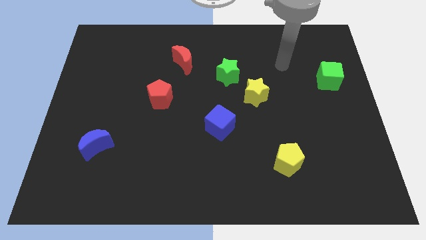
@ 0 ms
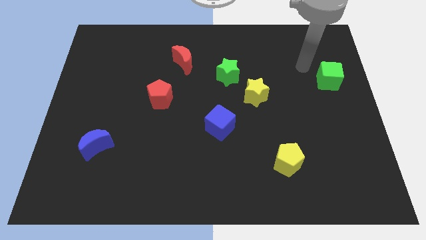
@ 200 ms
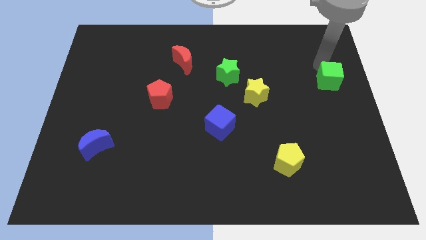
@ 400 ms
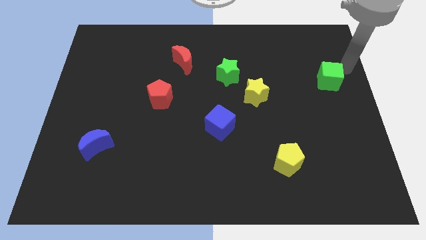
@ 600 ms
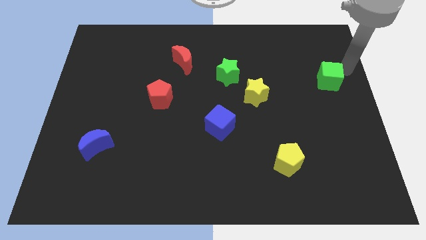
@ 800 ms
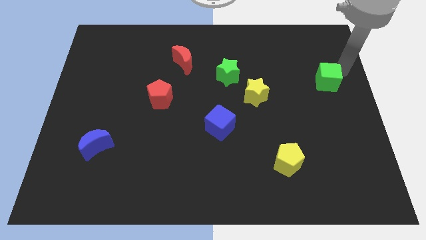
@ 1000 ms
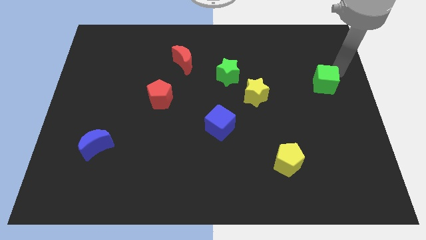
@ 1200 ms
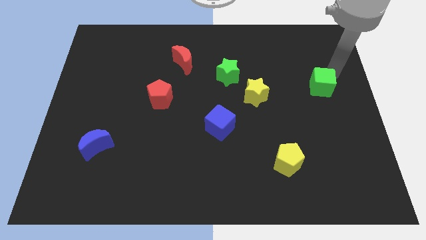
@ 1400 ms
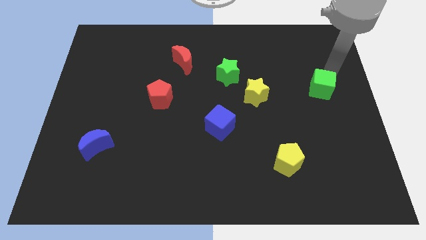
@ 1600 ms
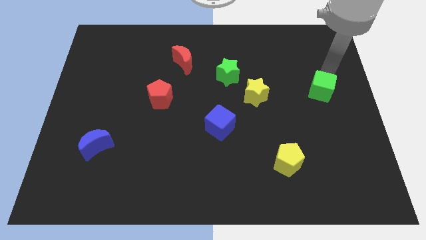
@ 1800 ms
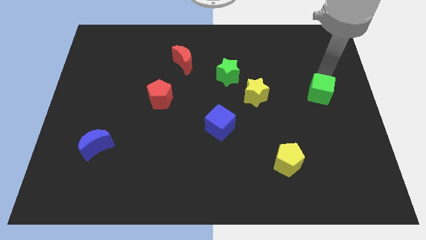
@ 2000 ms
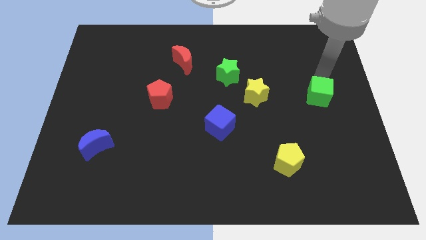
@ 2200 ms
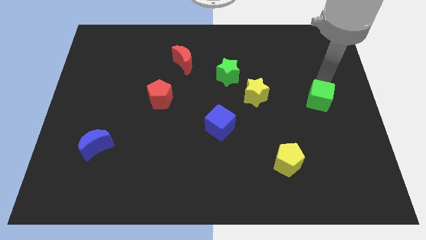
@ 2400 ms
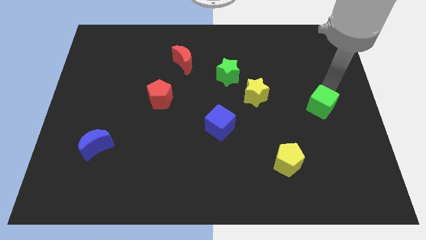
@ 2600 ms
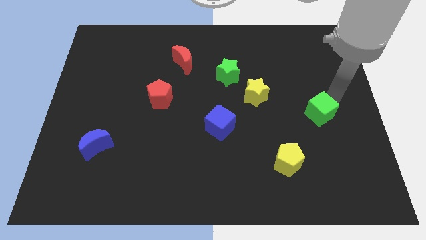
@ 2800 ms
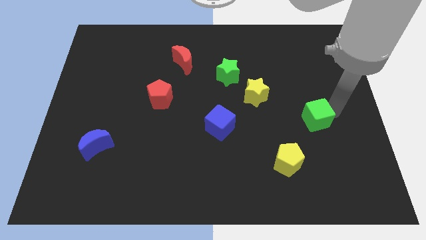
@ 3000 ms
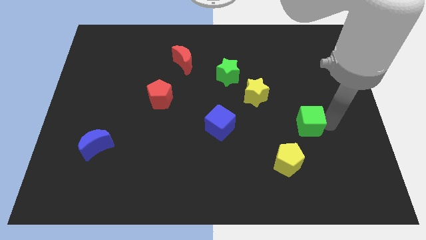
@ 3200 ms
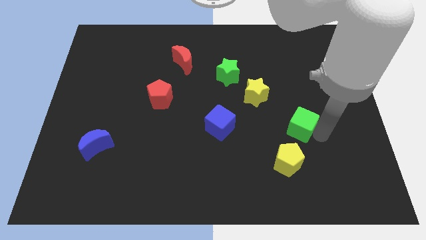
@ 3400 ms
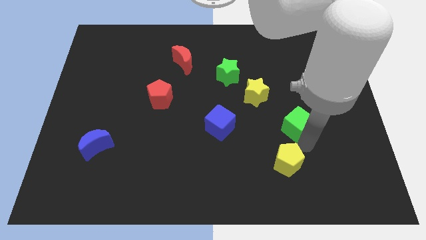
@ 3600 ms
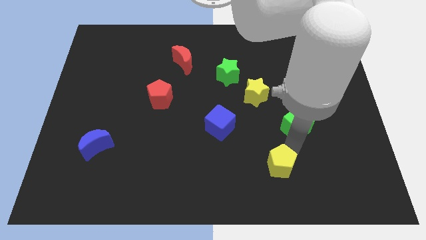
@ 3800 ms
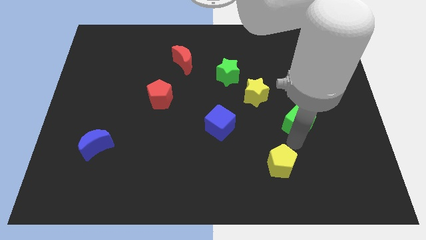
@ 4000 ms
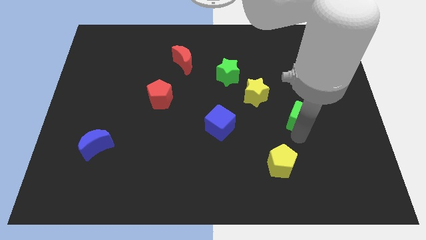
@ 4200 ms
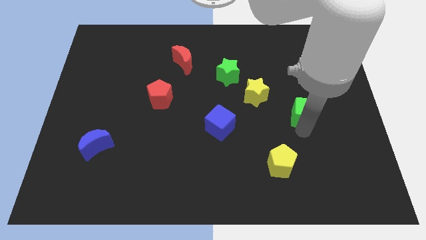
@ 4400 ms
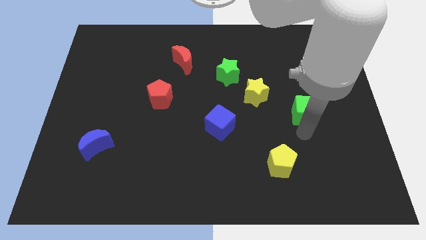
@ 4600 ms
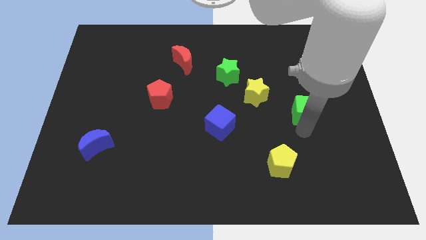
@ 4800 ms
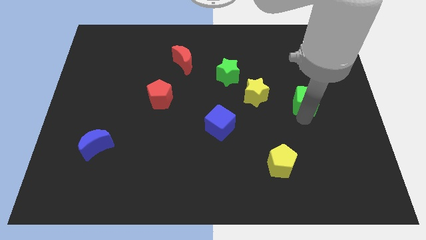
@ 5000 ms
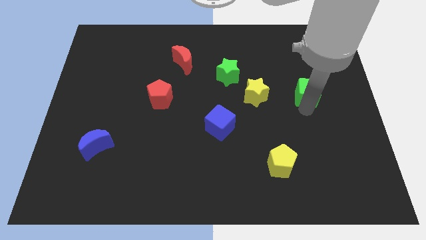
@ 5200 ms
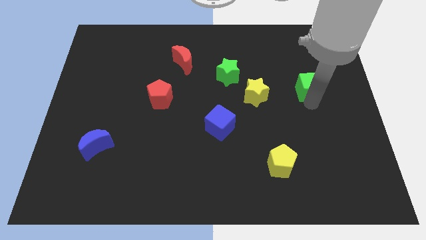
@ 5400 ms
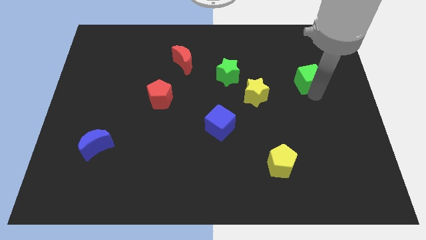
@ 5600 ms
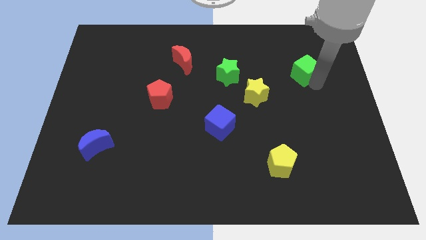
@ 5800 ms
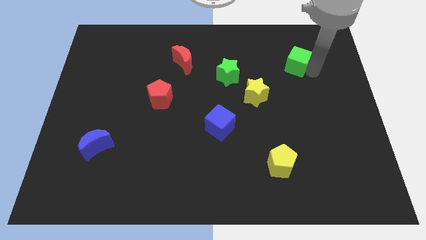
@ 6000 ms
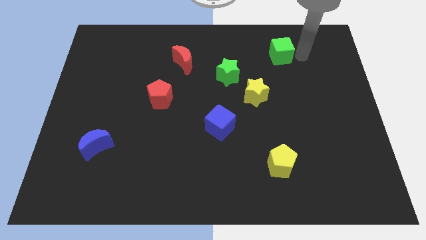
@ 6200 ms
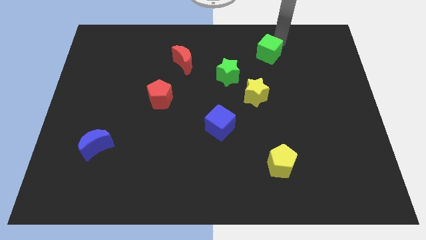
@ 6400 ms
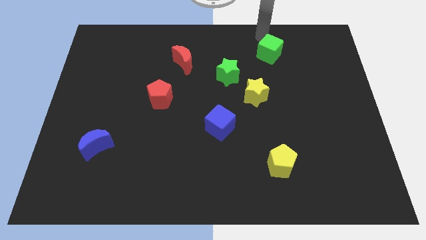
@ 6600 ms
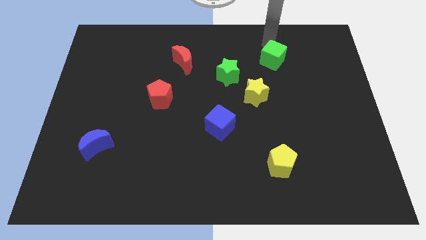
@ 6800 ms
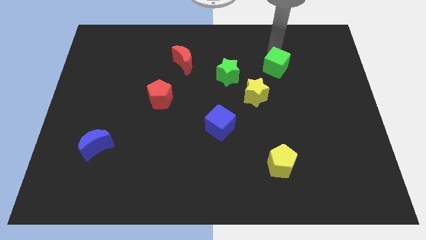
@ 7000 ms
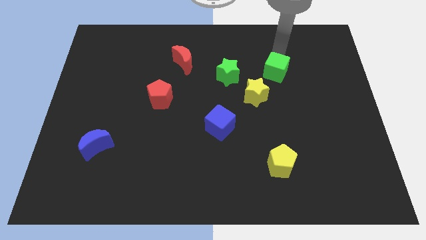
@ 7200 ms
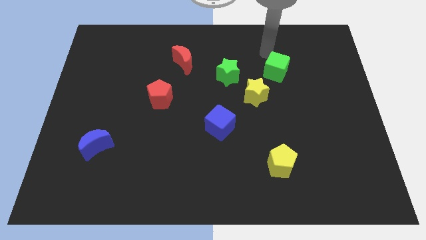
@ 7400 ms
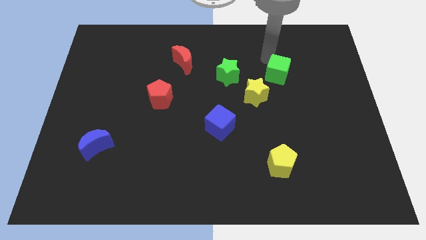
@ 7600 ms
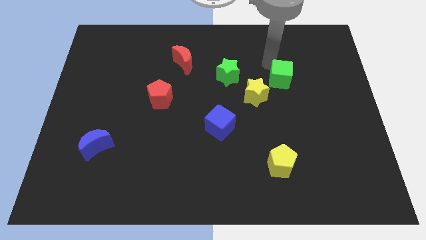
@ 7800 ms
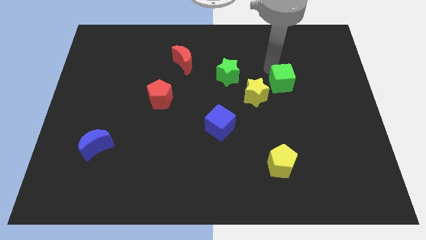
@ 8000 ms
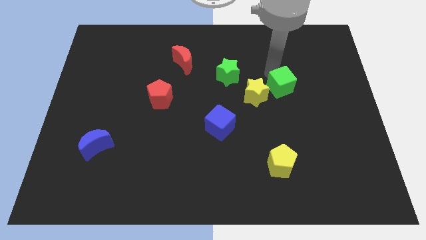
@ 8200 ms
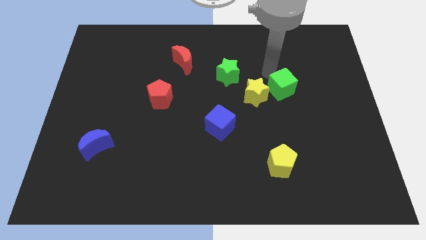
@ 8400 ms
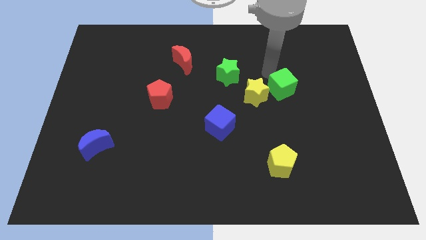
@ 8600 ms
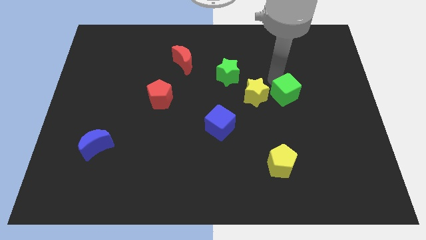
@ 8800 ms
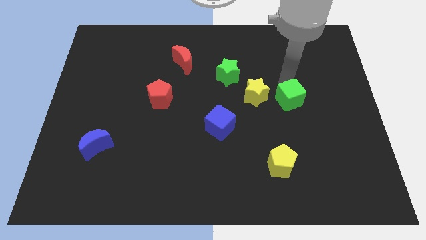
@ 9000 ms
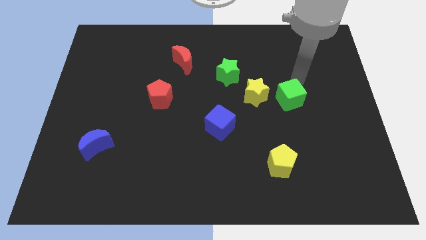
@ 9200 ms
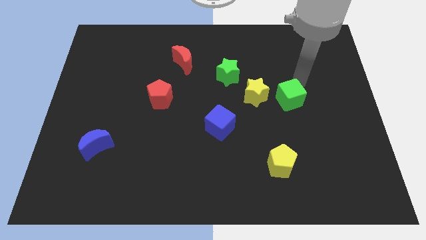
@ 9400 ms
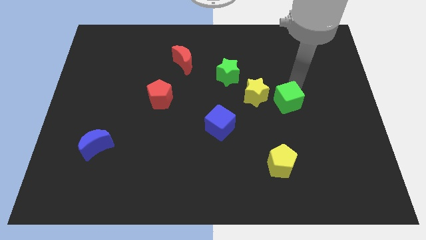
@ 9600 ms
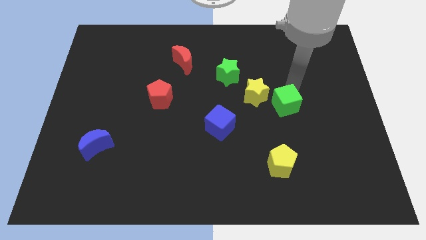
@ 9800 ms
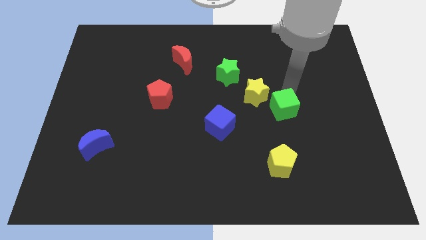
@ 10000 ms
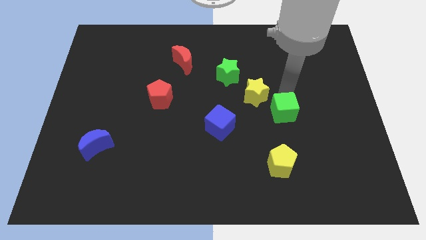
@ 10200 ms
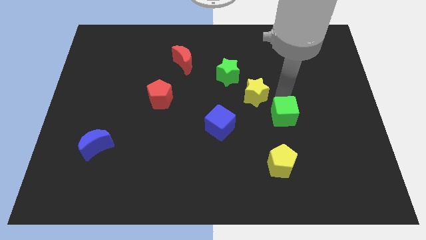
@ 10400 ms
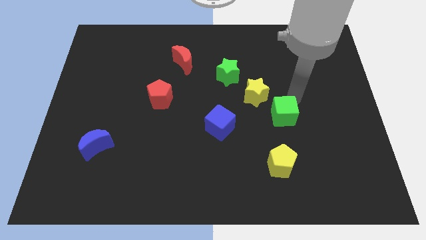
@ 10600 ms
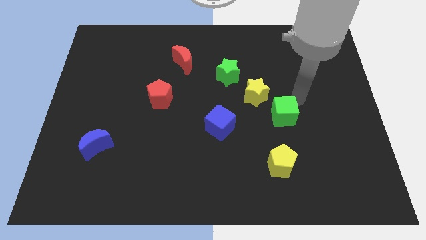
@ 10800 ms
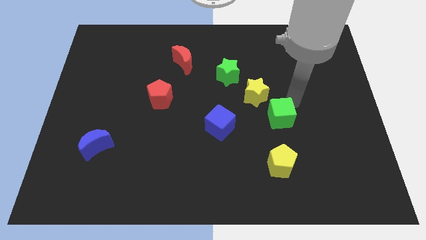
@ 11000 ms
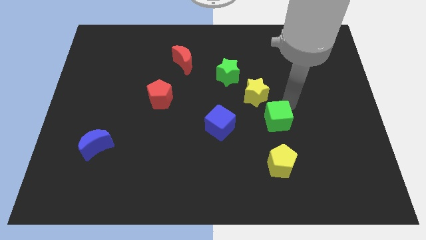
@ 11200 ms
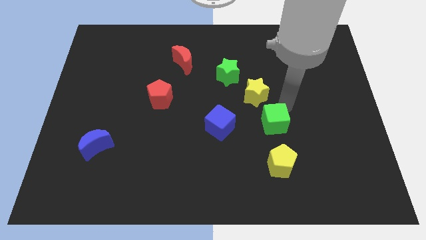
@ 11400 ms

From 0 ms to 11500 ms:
slide the green cube downwards and to the left diagonally

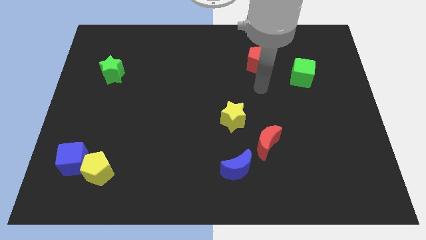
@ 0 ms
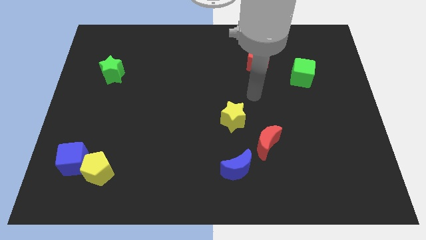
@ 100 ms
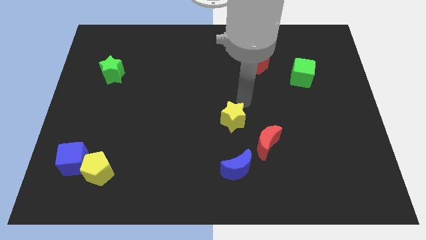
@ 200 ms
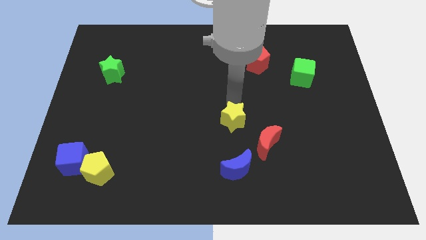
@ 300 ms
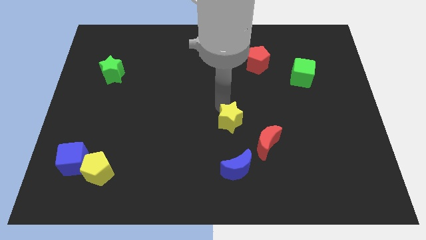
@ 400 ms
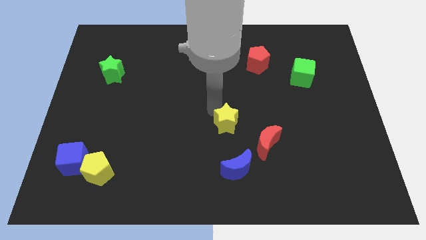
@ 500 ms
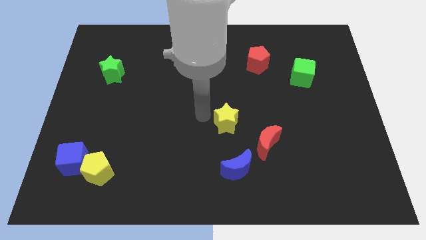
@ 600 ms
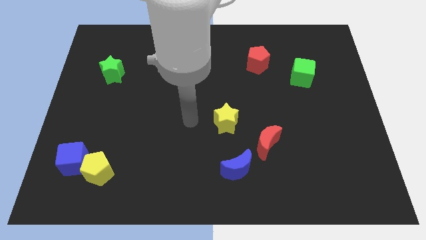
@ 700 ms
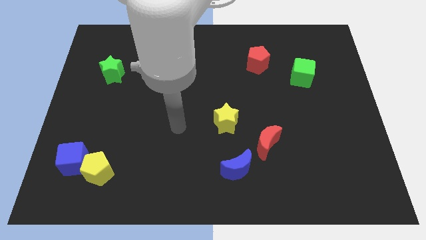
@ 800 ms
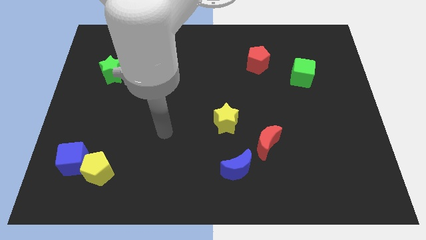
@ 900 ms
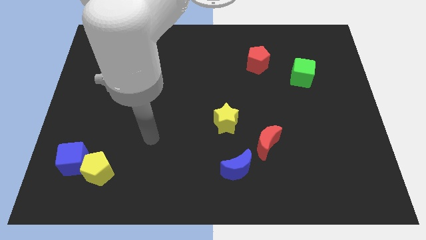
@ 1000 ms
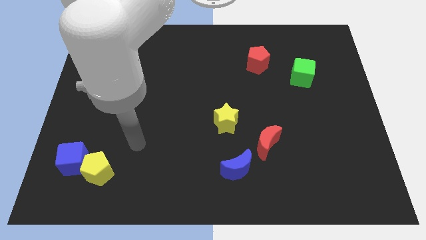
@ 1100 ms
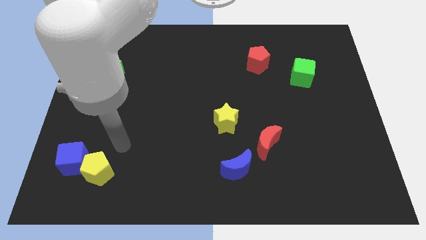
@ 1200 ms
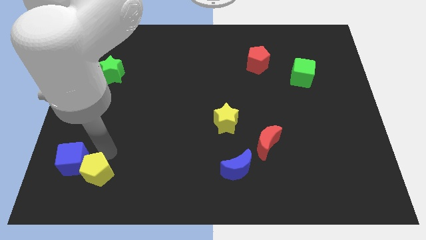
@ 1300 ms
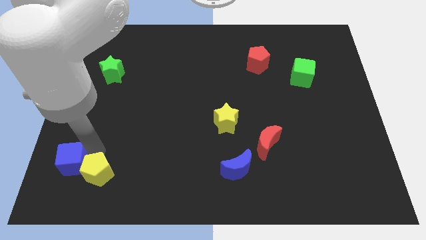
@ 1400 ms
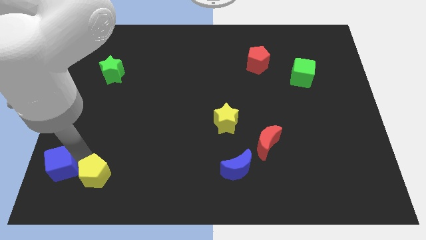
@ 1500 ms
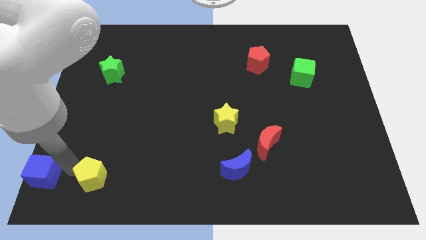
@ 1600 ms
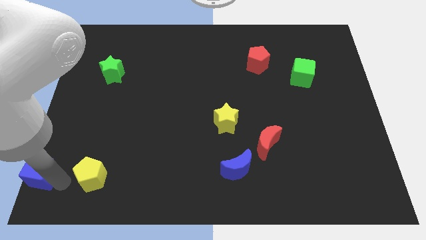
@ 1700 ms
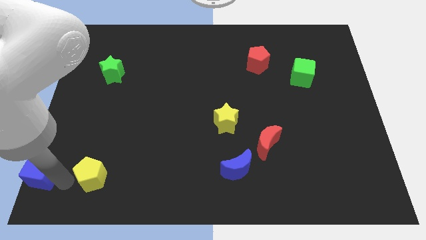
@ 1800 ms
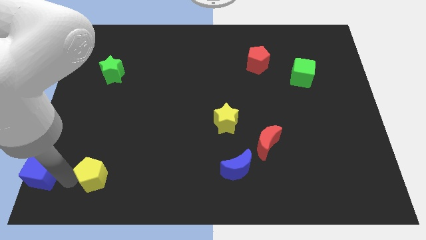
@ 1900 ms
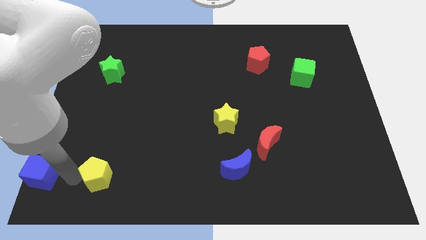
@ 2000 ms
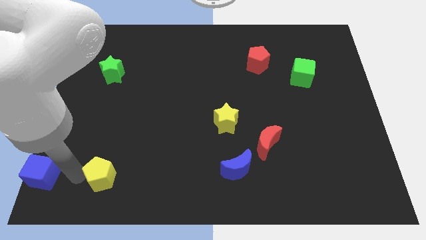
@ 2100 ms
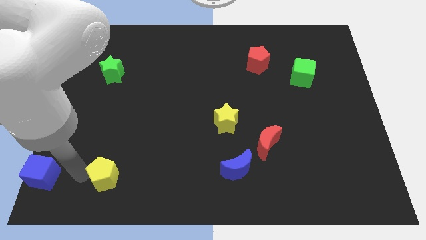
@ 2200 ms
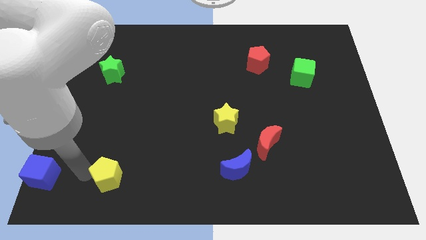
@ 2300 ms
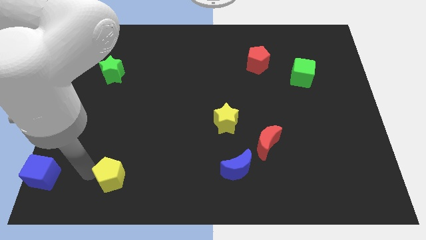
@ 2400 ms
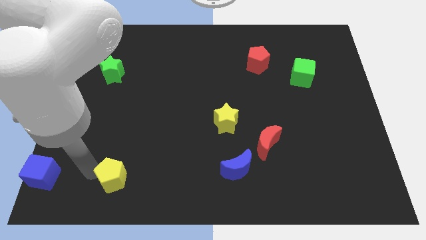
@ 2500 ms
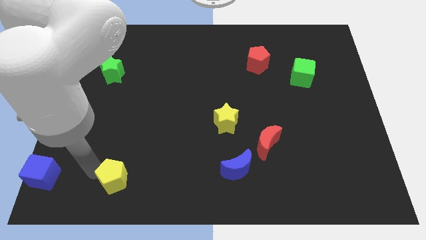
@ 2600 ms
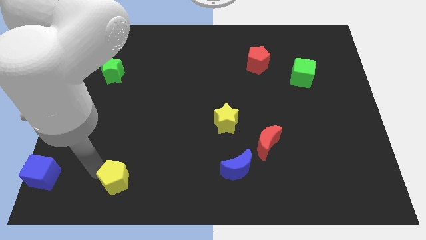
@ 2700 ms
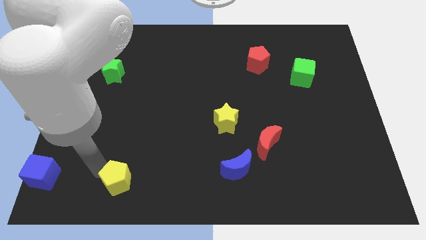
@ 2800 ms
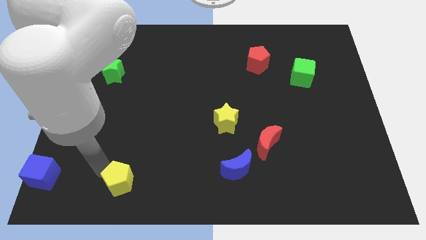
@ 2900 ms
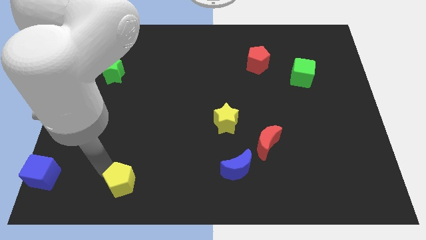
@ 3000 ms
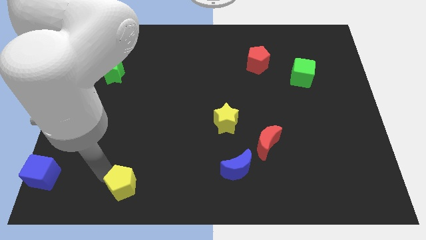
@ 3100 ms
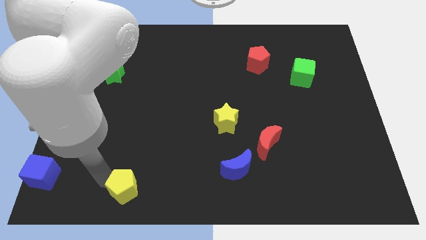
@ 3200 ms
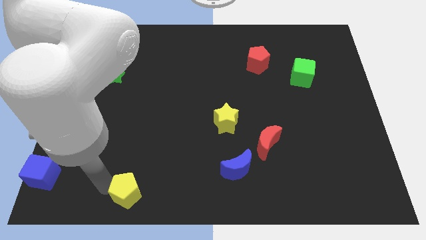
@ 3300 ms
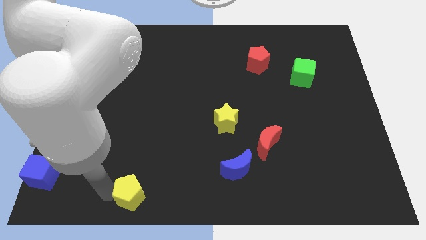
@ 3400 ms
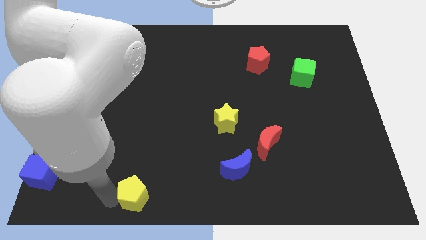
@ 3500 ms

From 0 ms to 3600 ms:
slightly slide the yellow pentagon to the right
